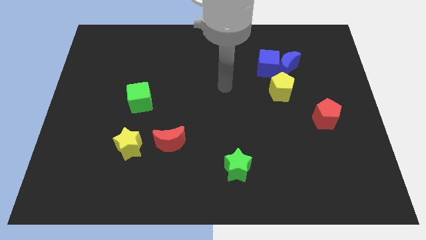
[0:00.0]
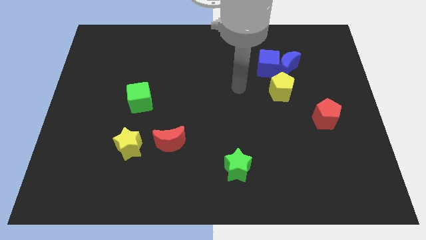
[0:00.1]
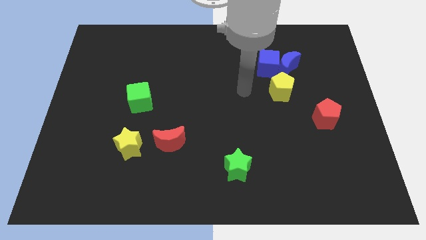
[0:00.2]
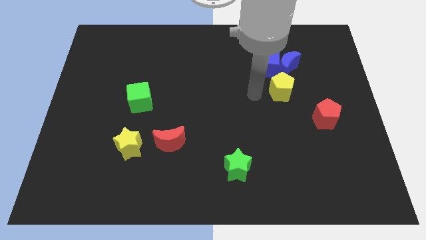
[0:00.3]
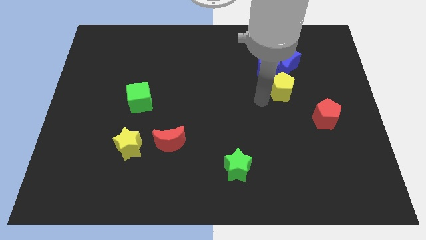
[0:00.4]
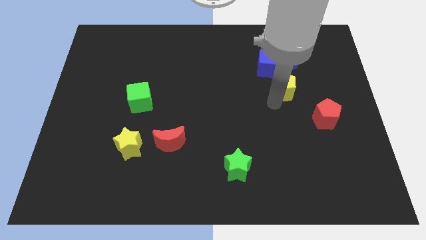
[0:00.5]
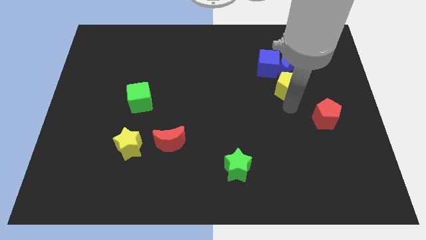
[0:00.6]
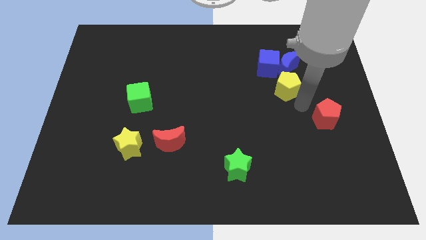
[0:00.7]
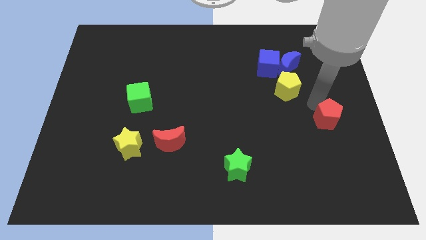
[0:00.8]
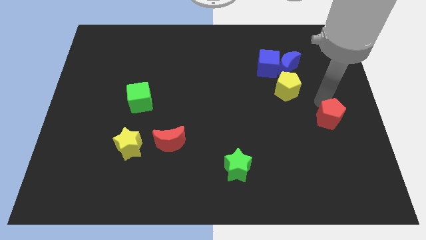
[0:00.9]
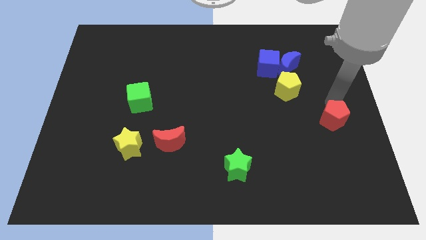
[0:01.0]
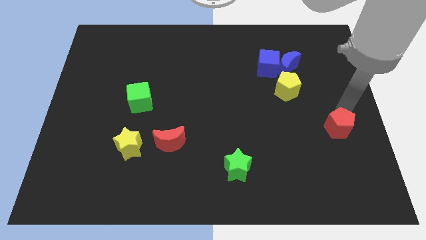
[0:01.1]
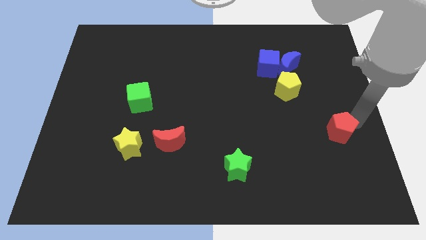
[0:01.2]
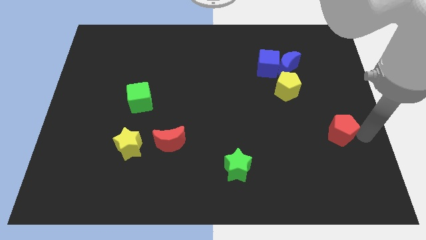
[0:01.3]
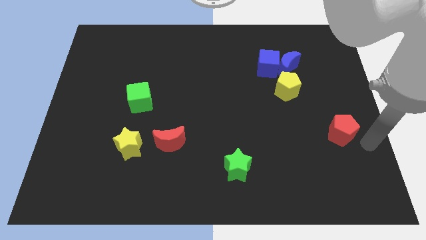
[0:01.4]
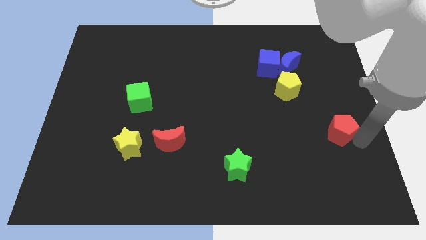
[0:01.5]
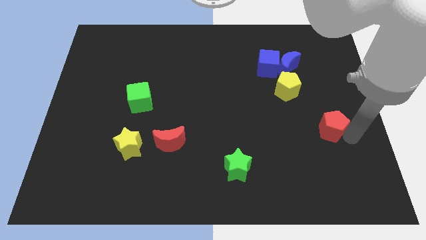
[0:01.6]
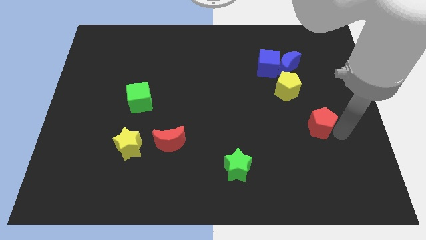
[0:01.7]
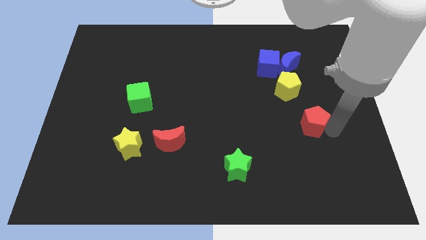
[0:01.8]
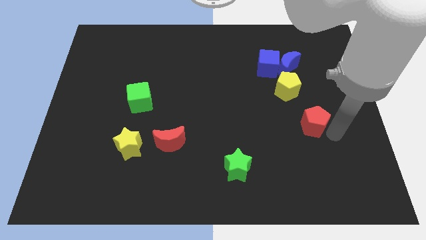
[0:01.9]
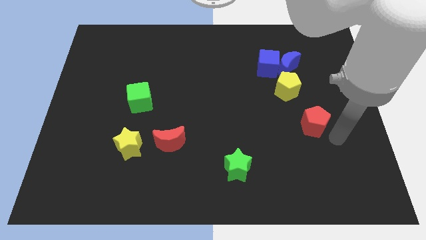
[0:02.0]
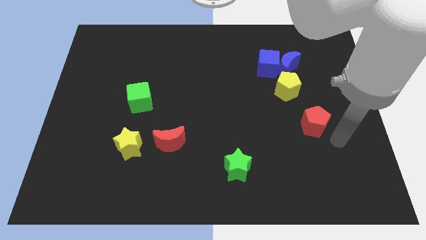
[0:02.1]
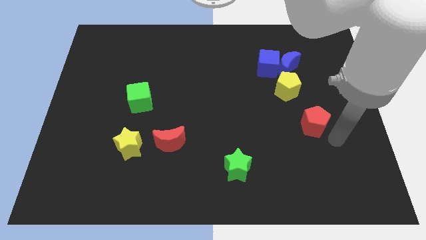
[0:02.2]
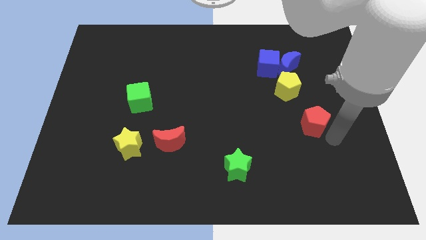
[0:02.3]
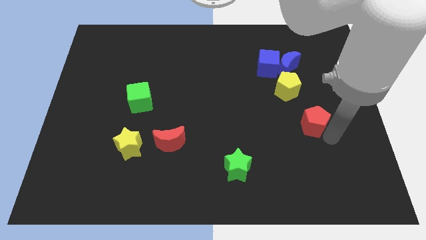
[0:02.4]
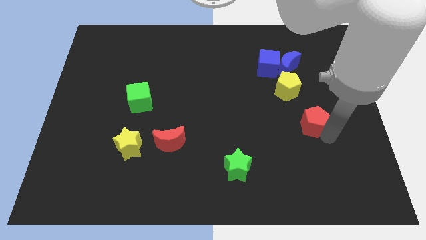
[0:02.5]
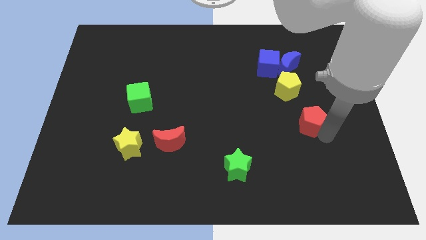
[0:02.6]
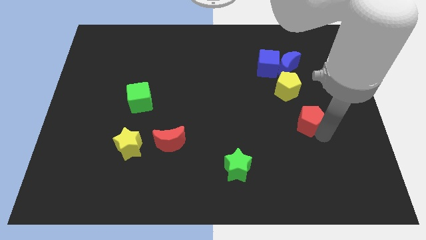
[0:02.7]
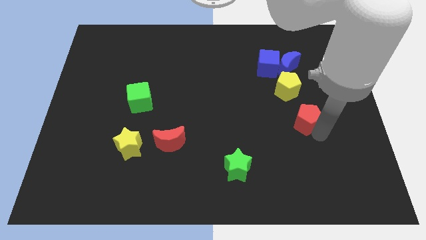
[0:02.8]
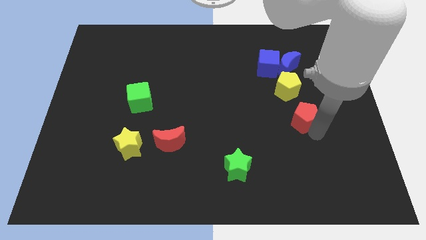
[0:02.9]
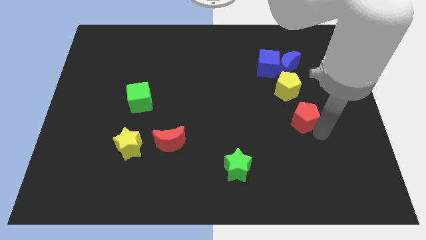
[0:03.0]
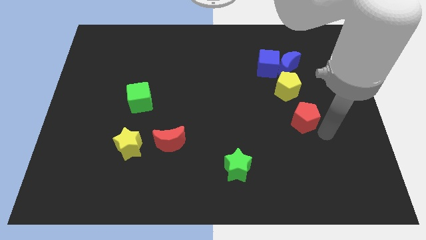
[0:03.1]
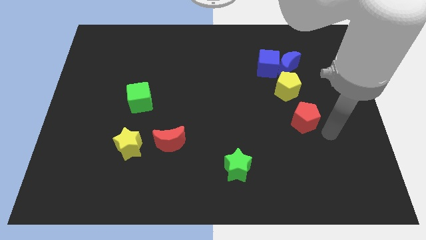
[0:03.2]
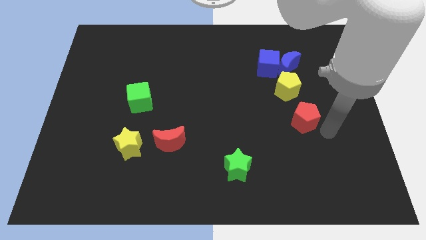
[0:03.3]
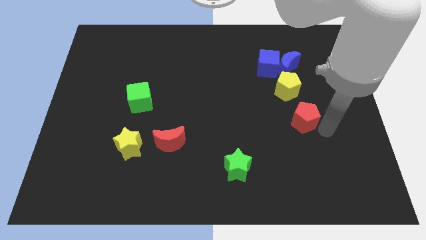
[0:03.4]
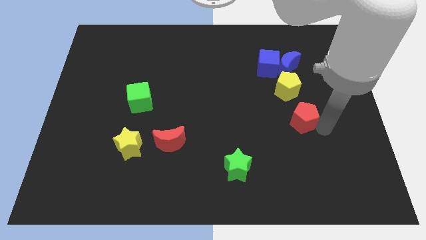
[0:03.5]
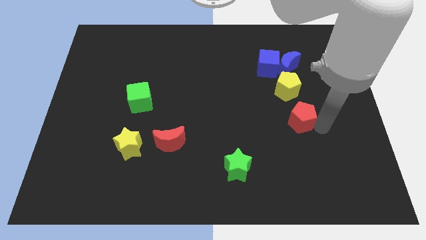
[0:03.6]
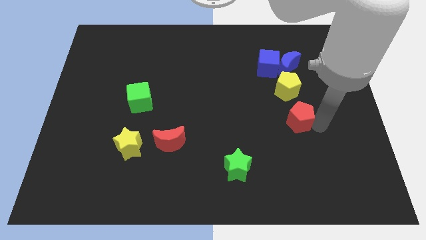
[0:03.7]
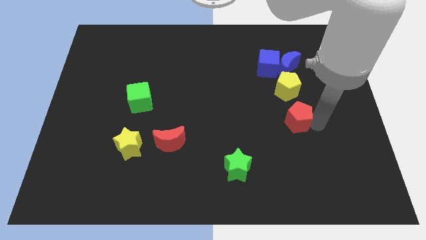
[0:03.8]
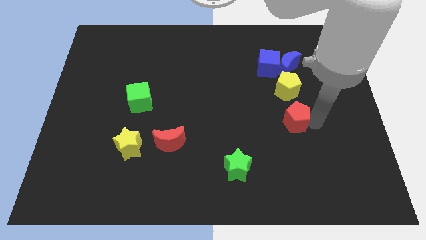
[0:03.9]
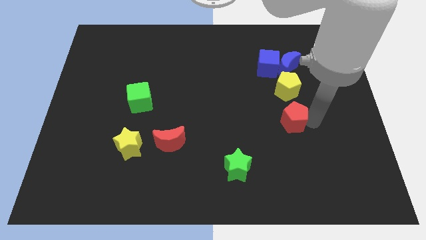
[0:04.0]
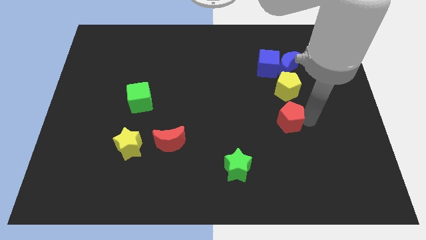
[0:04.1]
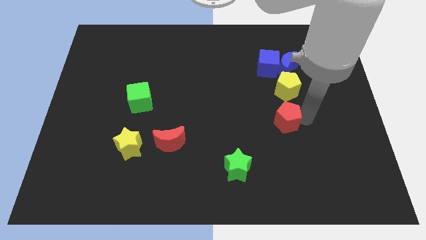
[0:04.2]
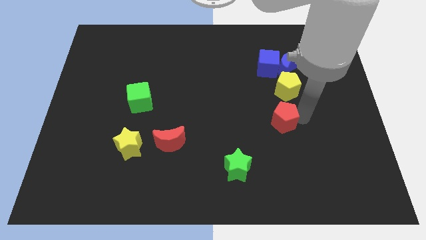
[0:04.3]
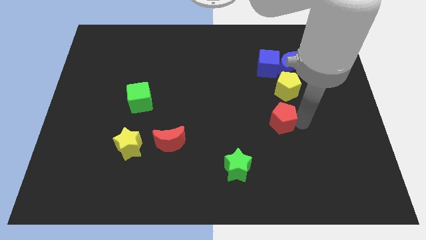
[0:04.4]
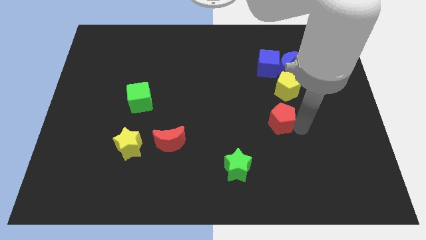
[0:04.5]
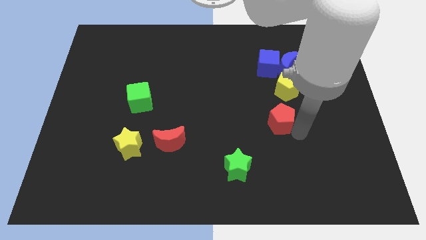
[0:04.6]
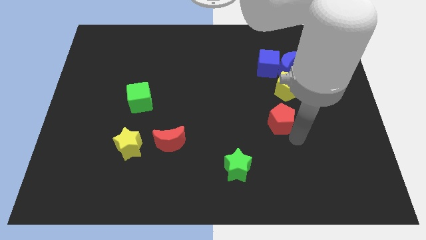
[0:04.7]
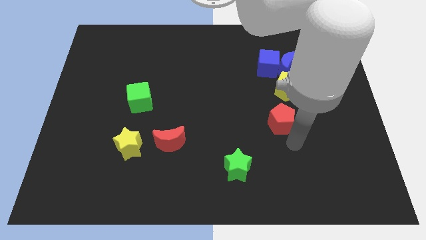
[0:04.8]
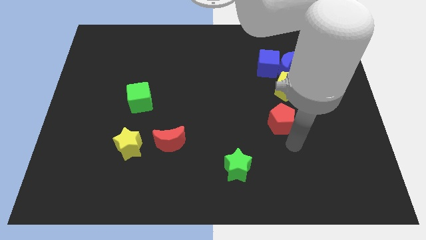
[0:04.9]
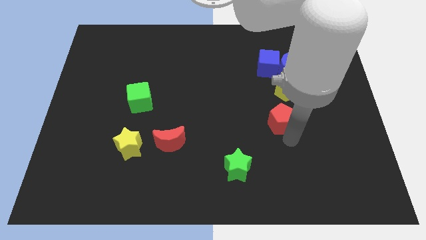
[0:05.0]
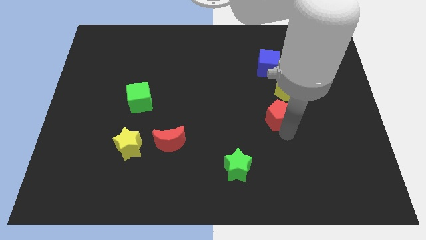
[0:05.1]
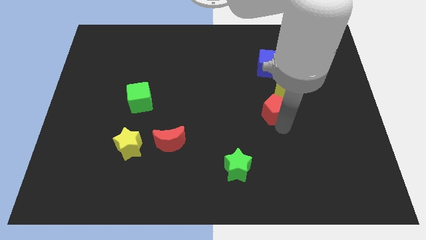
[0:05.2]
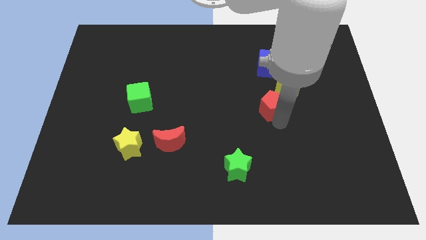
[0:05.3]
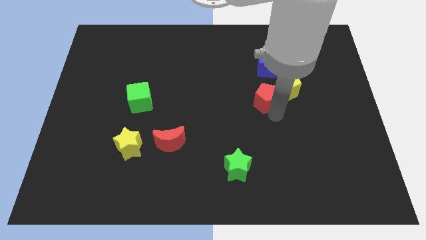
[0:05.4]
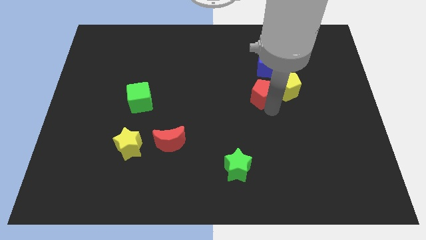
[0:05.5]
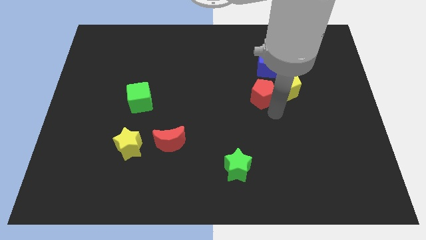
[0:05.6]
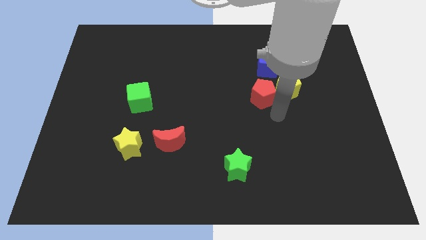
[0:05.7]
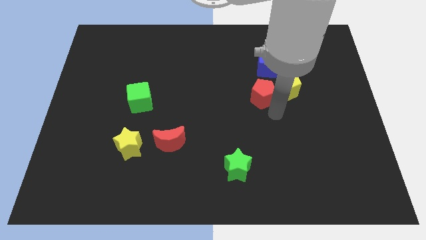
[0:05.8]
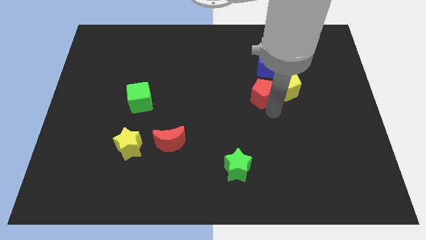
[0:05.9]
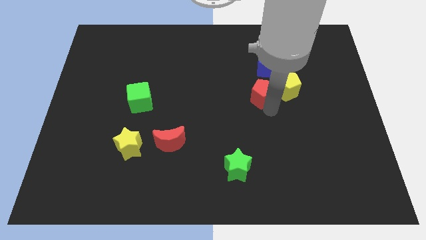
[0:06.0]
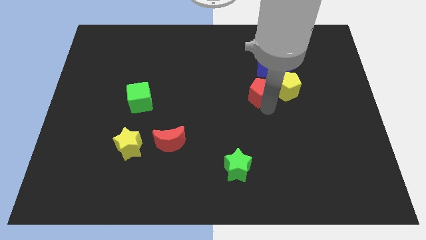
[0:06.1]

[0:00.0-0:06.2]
slide the red pentagon to the bottom left side of the blue cube

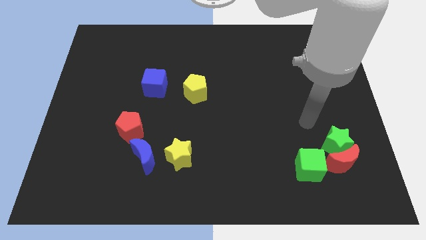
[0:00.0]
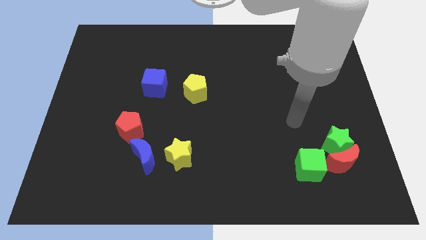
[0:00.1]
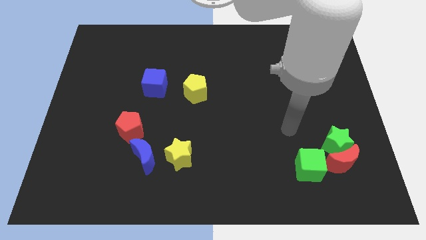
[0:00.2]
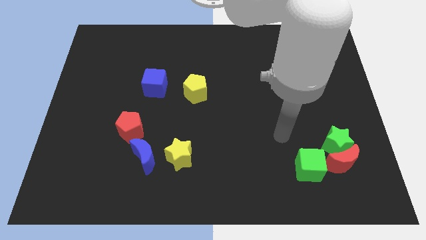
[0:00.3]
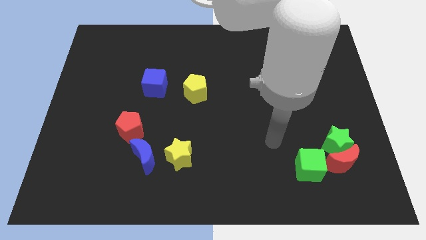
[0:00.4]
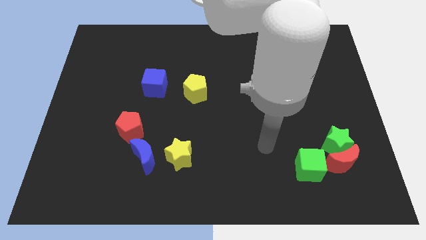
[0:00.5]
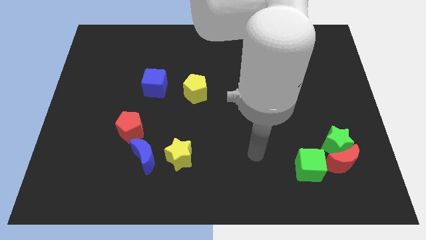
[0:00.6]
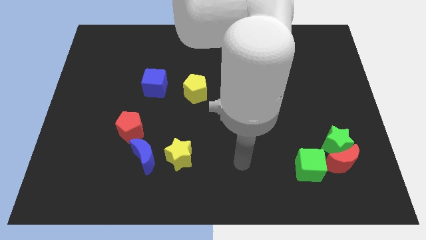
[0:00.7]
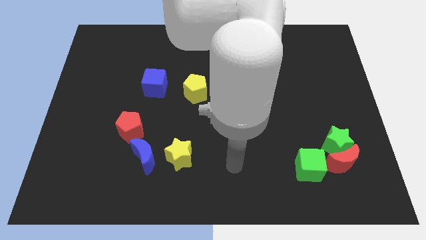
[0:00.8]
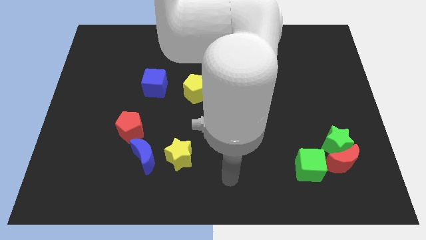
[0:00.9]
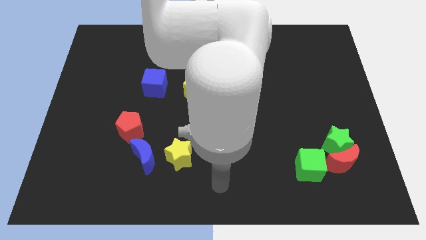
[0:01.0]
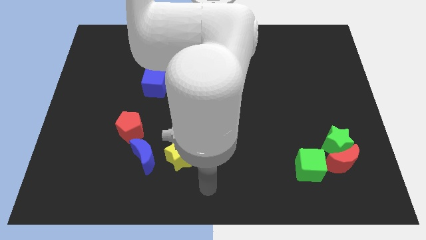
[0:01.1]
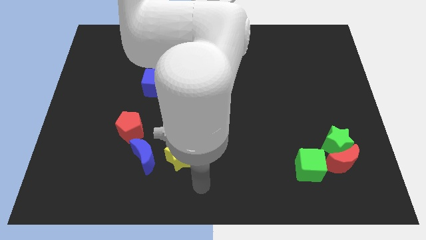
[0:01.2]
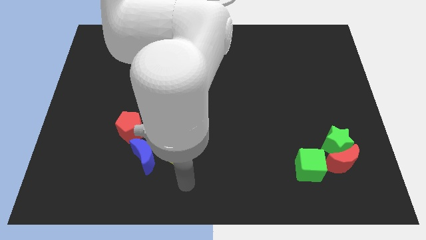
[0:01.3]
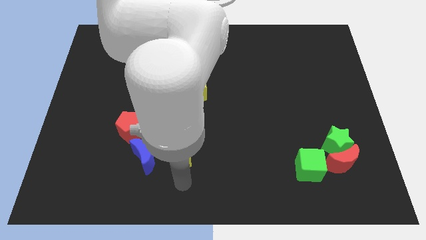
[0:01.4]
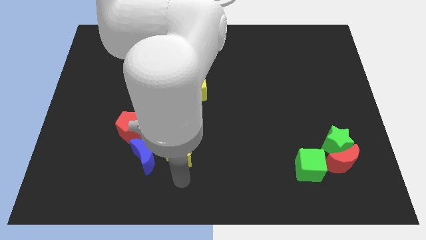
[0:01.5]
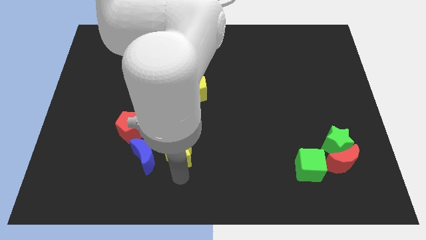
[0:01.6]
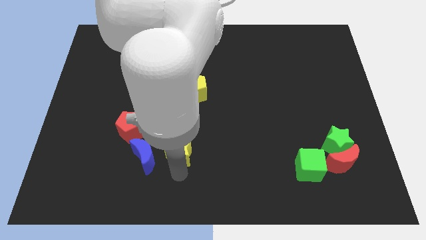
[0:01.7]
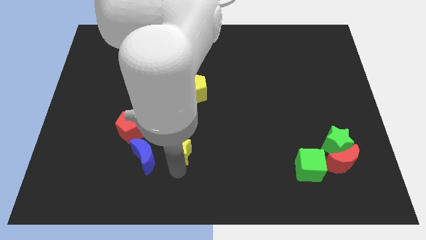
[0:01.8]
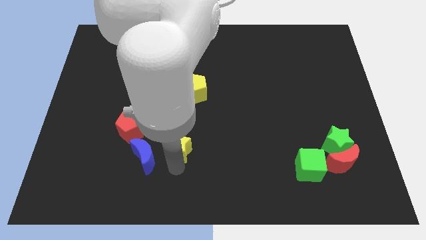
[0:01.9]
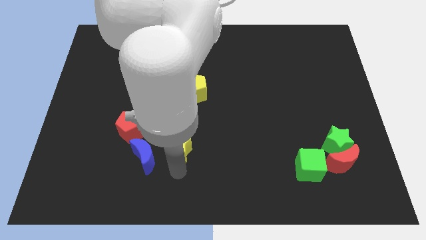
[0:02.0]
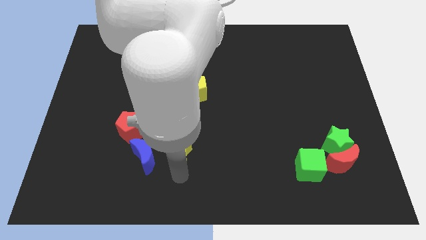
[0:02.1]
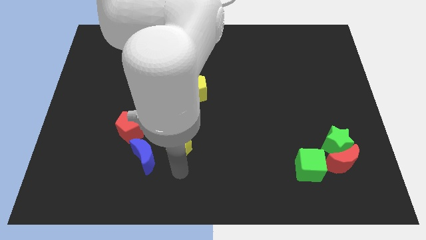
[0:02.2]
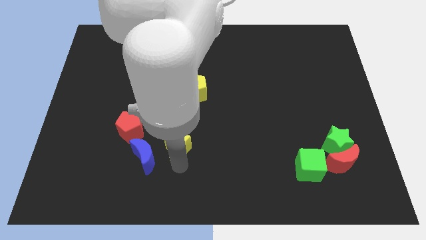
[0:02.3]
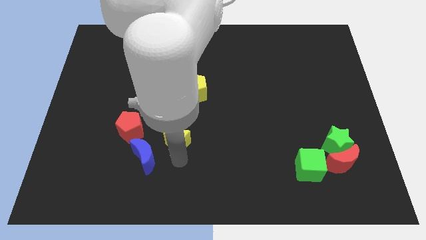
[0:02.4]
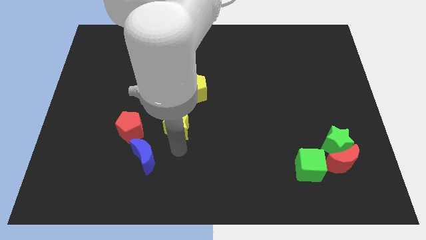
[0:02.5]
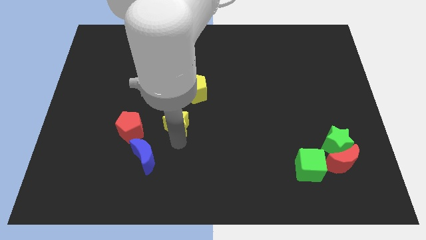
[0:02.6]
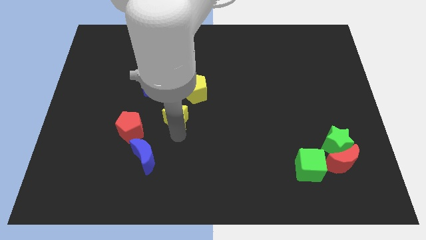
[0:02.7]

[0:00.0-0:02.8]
put the yellow star diagonally down and to the right of the blue cube
